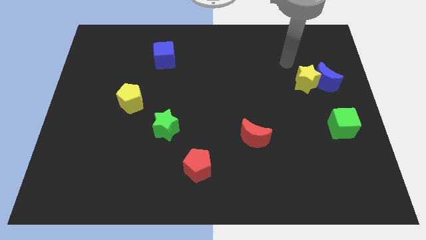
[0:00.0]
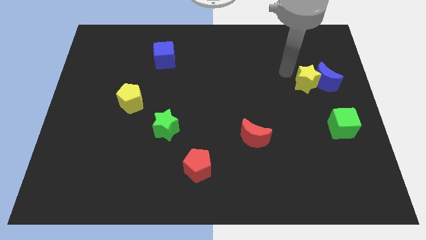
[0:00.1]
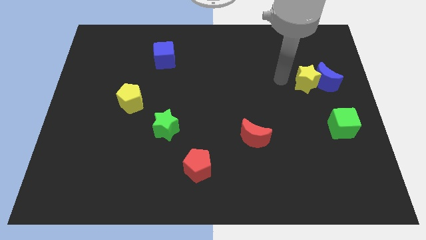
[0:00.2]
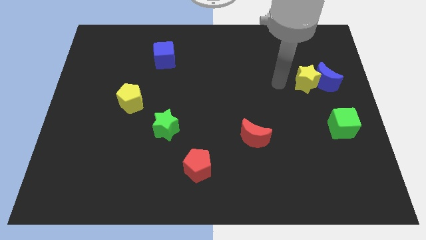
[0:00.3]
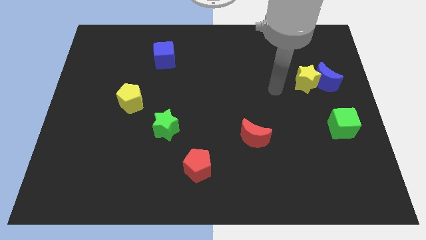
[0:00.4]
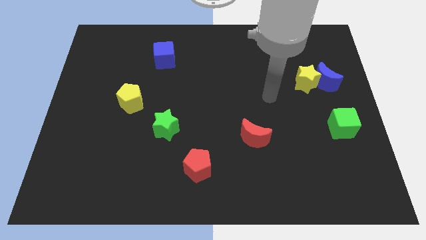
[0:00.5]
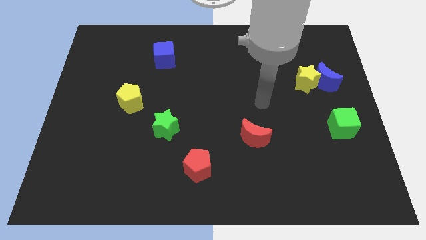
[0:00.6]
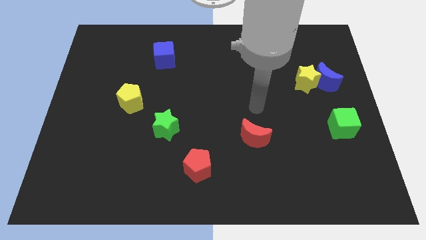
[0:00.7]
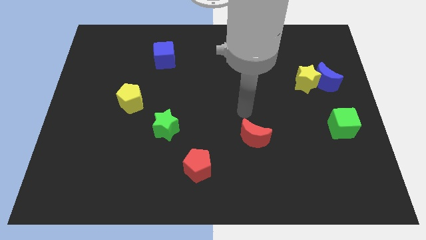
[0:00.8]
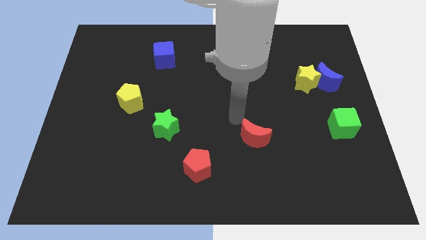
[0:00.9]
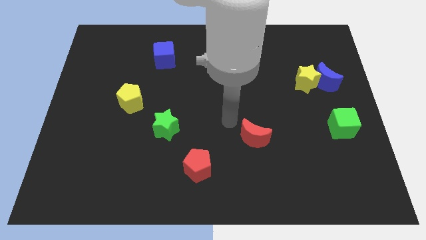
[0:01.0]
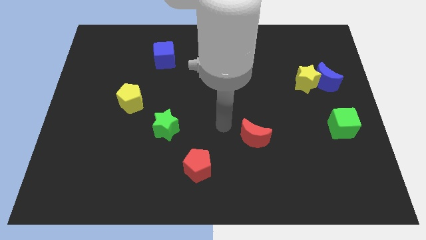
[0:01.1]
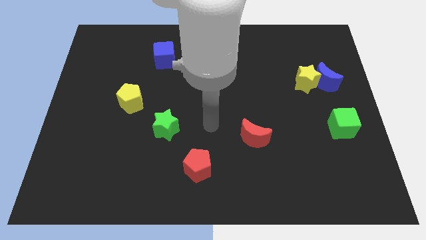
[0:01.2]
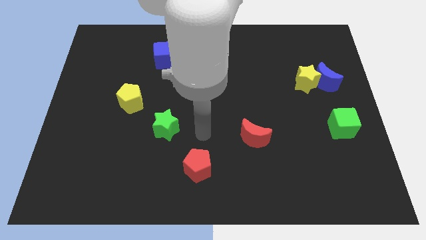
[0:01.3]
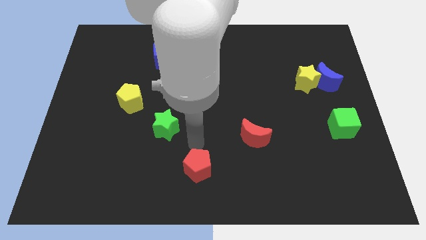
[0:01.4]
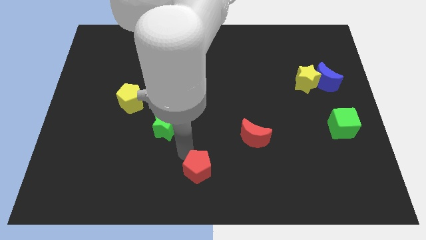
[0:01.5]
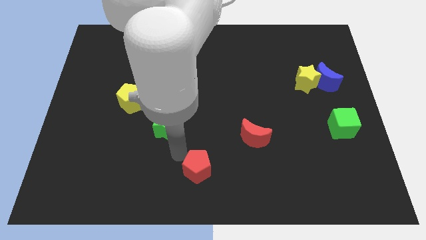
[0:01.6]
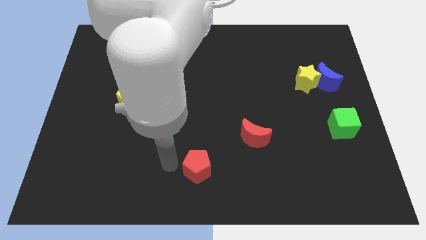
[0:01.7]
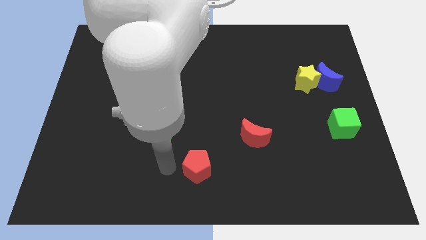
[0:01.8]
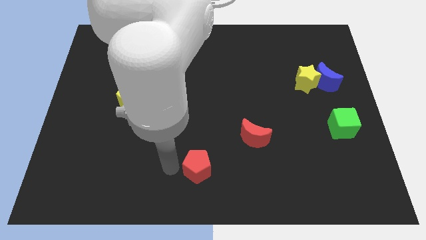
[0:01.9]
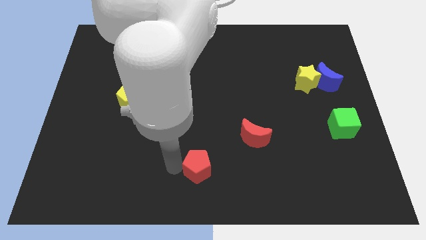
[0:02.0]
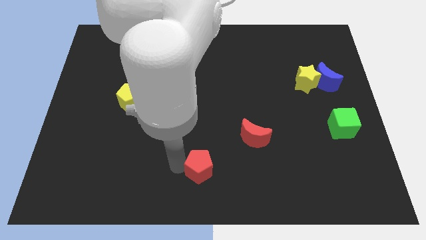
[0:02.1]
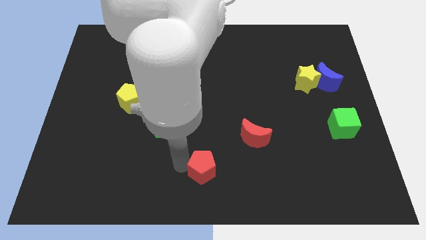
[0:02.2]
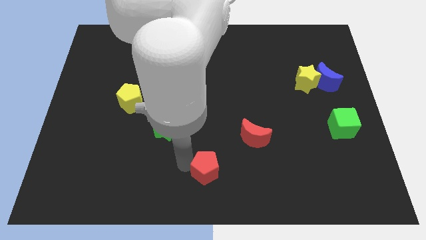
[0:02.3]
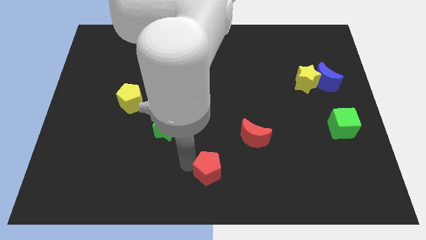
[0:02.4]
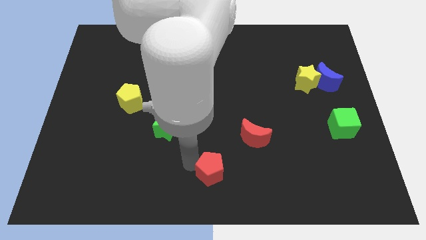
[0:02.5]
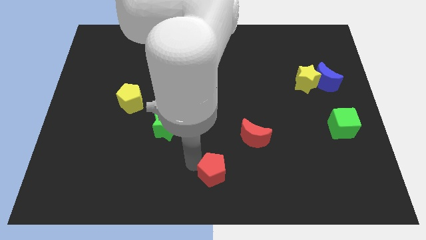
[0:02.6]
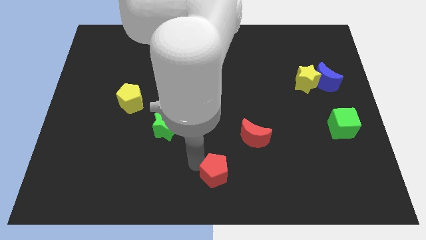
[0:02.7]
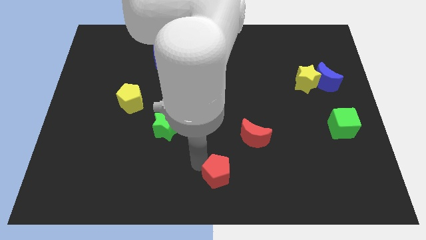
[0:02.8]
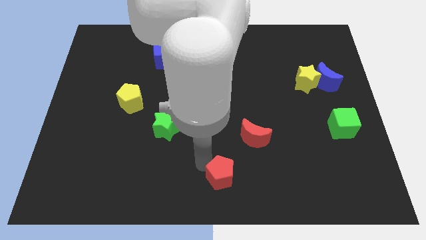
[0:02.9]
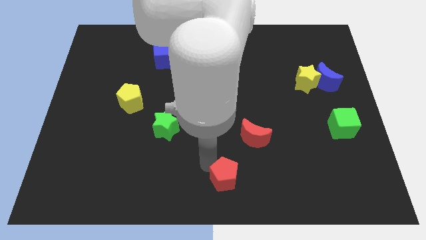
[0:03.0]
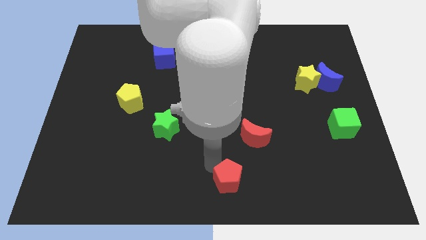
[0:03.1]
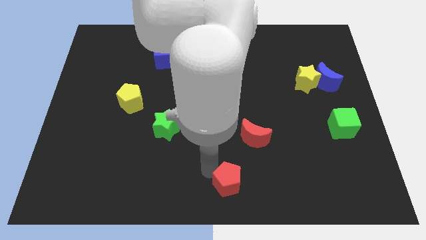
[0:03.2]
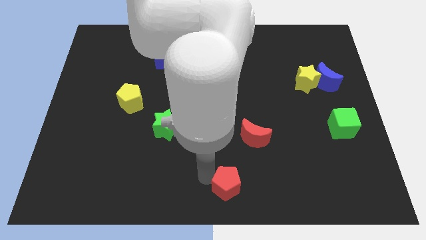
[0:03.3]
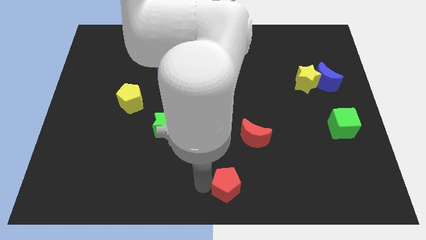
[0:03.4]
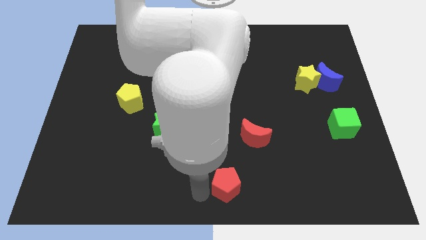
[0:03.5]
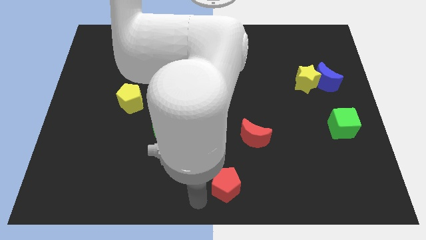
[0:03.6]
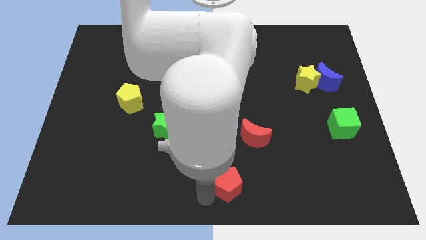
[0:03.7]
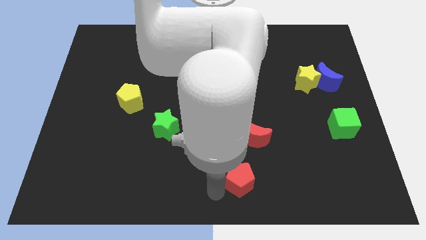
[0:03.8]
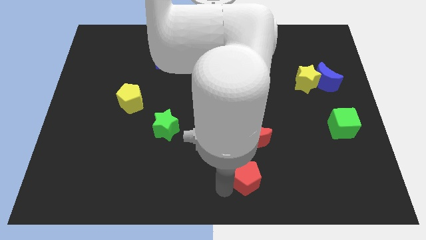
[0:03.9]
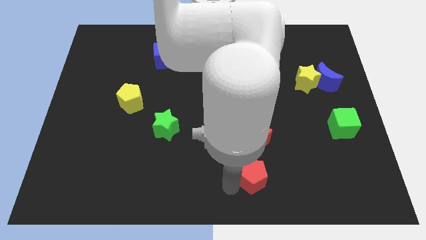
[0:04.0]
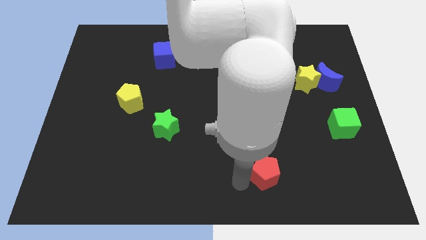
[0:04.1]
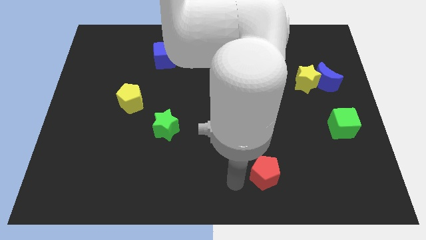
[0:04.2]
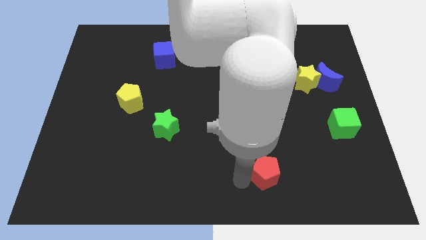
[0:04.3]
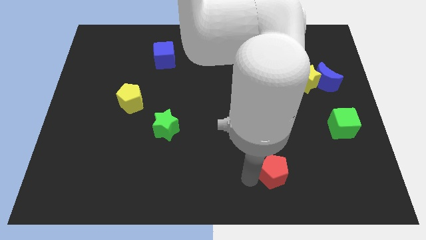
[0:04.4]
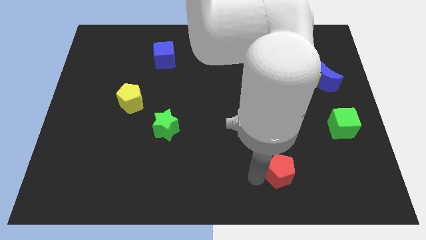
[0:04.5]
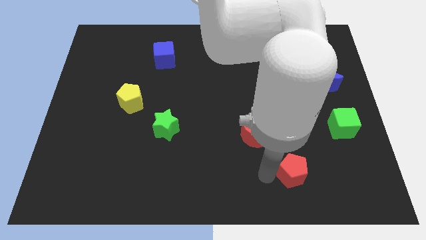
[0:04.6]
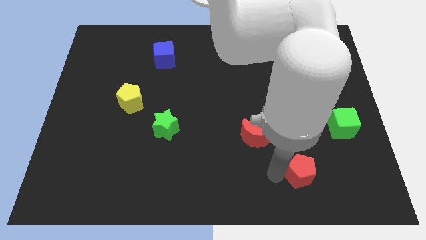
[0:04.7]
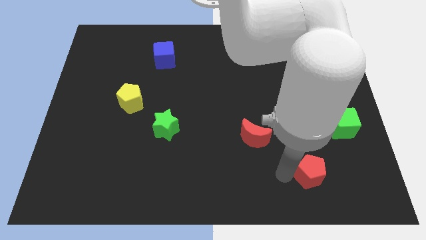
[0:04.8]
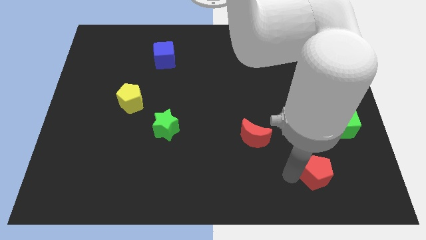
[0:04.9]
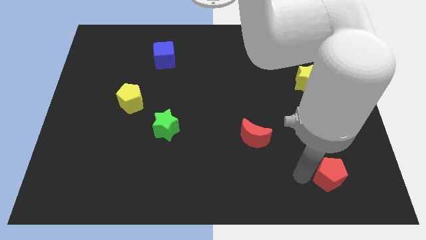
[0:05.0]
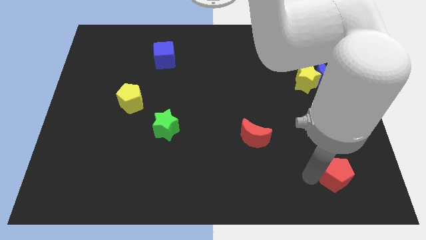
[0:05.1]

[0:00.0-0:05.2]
slide the red pentagon below the green cube

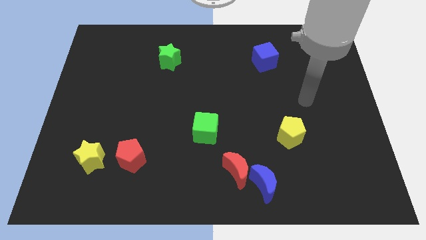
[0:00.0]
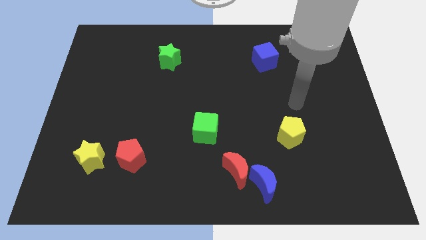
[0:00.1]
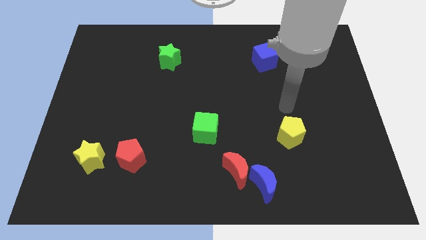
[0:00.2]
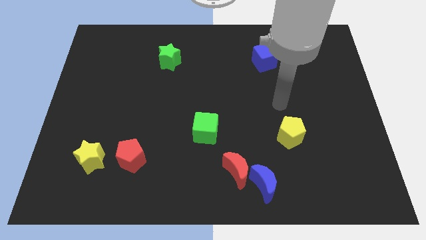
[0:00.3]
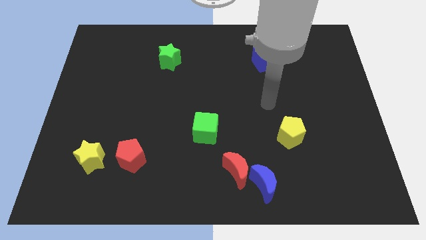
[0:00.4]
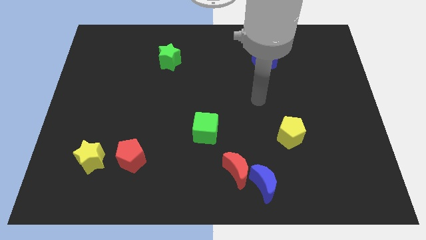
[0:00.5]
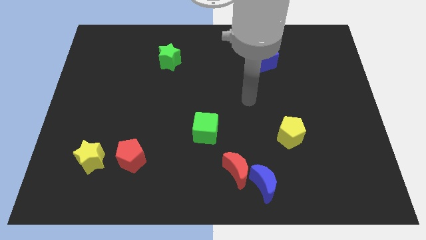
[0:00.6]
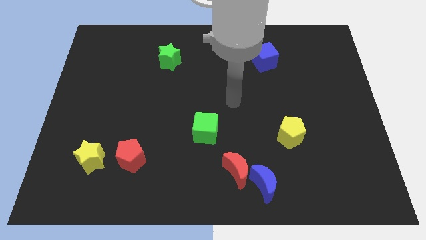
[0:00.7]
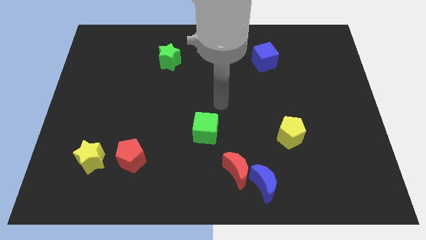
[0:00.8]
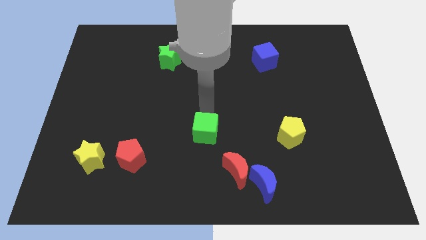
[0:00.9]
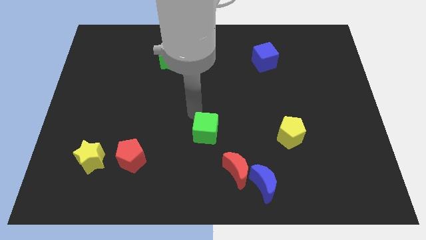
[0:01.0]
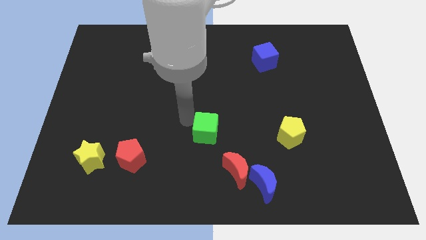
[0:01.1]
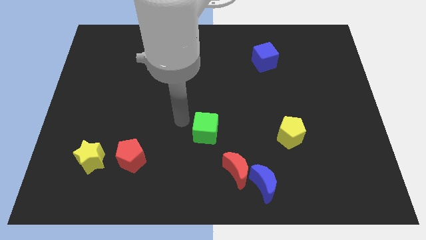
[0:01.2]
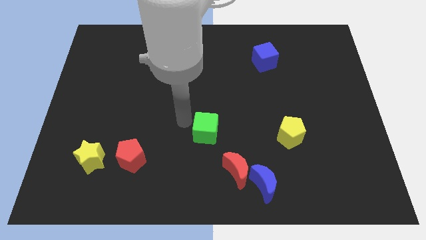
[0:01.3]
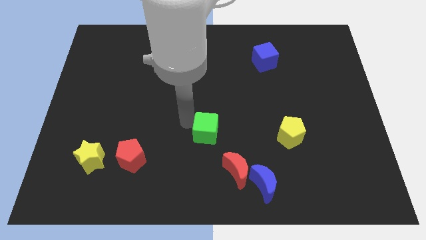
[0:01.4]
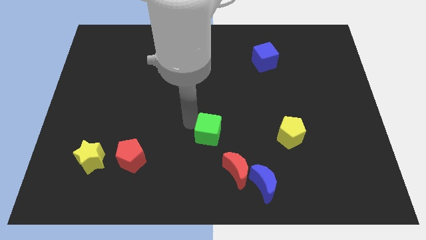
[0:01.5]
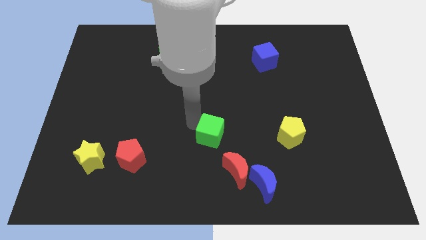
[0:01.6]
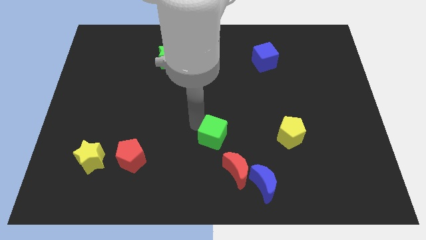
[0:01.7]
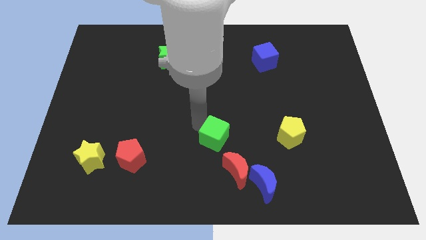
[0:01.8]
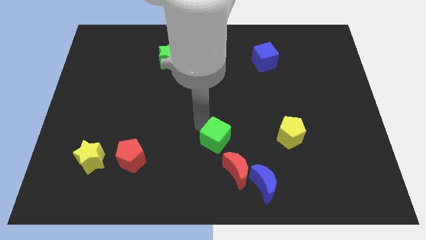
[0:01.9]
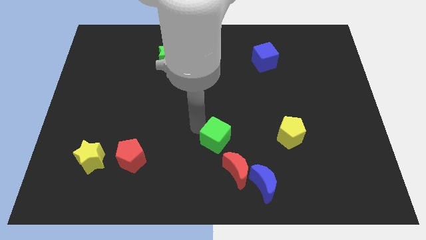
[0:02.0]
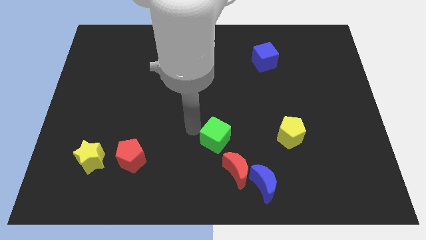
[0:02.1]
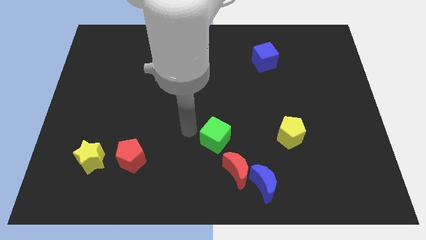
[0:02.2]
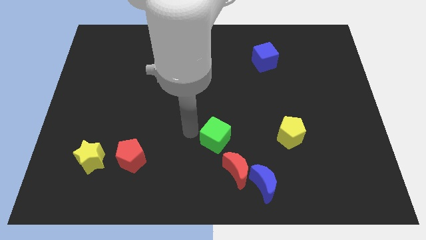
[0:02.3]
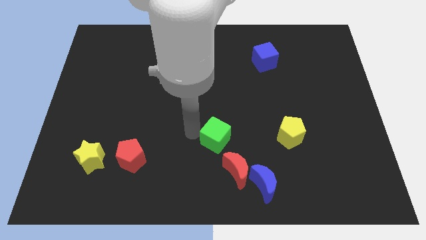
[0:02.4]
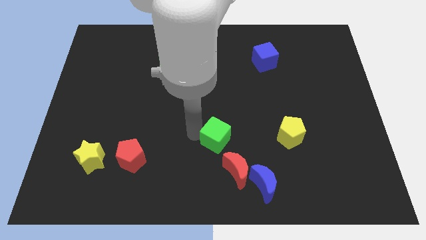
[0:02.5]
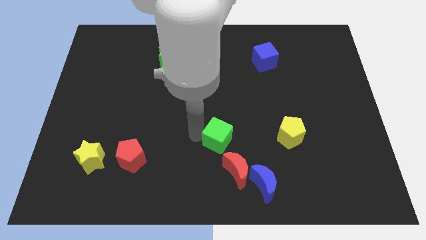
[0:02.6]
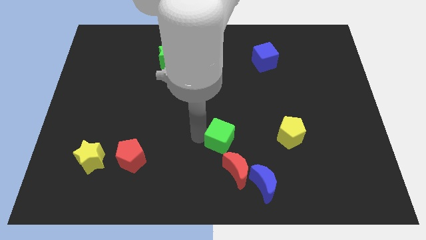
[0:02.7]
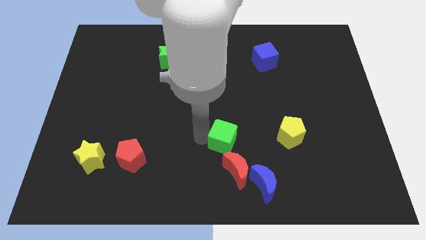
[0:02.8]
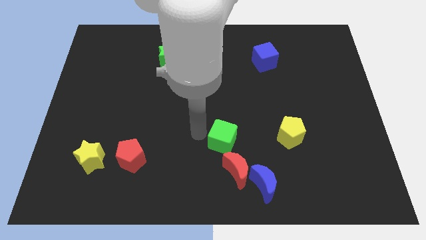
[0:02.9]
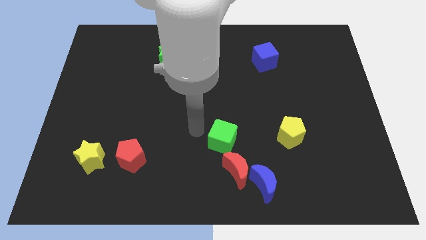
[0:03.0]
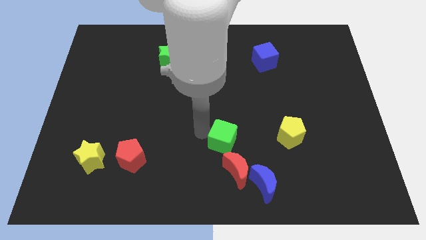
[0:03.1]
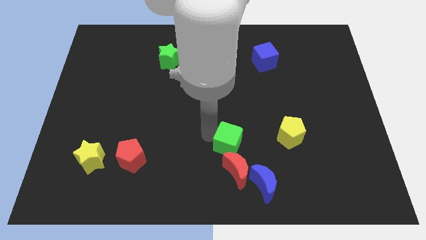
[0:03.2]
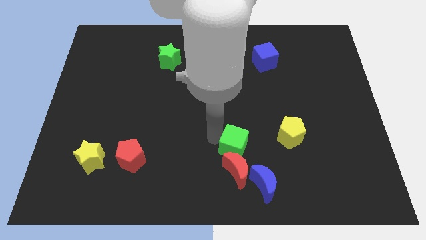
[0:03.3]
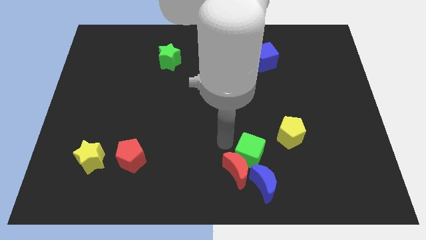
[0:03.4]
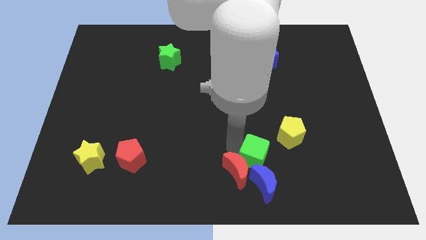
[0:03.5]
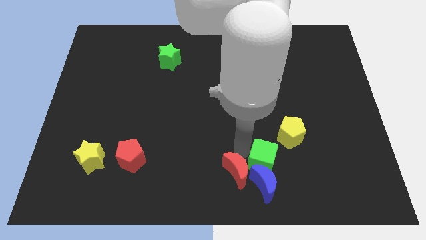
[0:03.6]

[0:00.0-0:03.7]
put the green cube to the top right side of the blue moon
